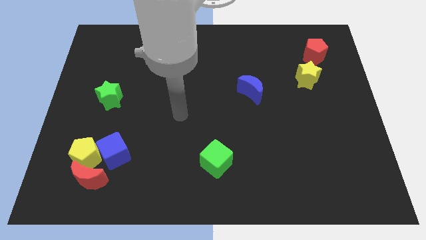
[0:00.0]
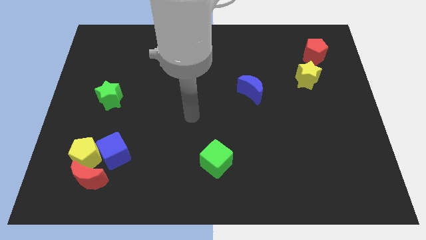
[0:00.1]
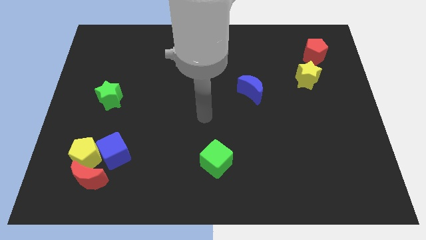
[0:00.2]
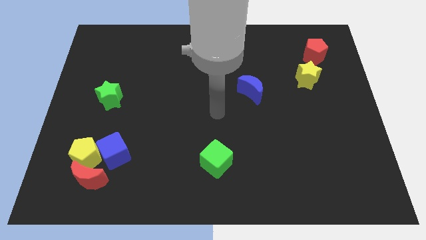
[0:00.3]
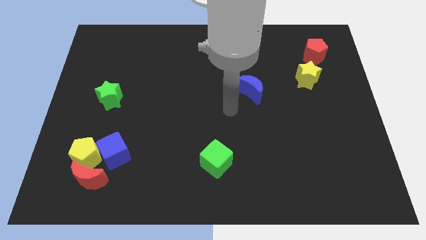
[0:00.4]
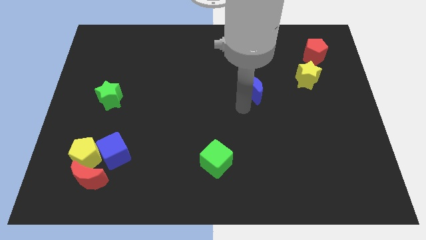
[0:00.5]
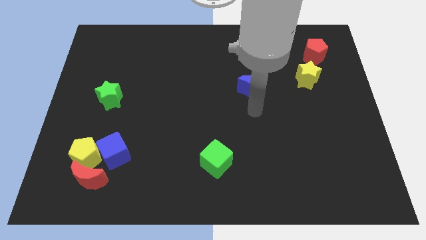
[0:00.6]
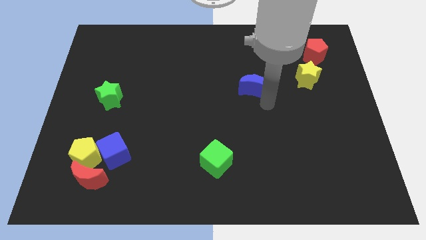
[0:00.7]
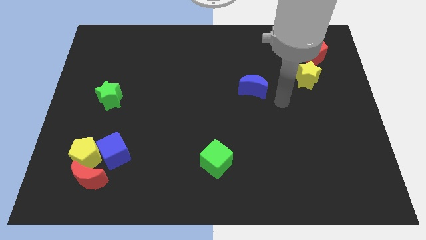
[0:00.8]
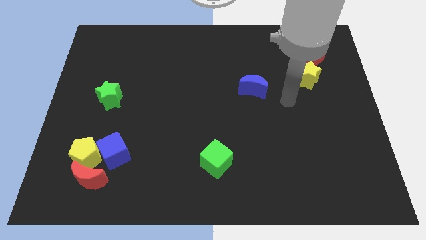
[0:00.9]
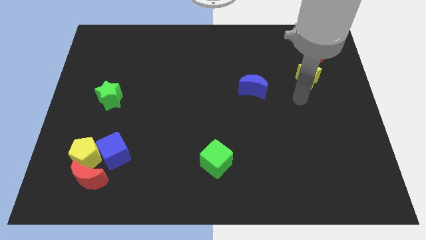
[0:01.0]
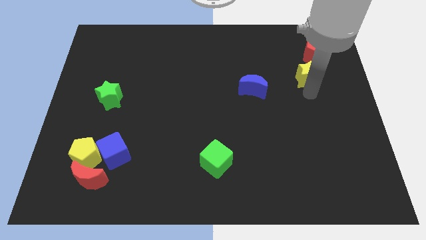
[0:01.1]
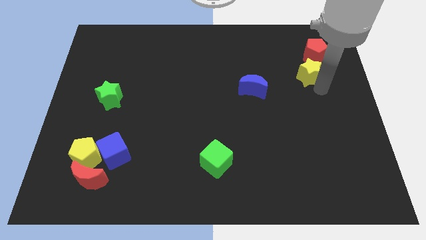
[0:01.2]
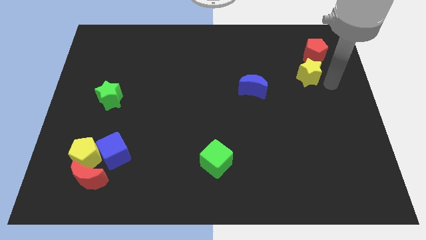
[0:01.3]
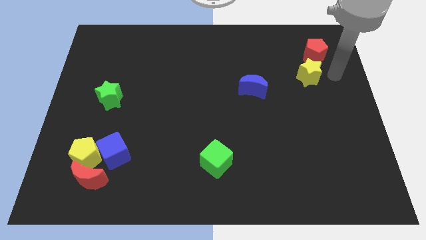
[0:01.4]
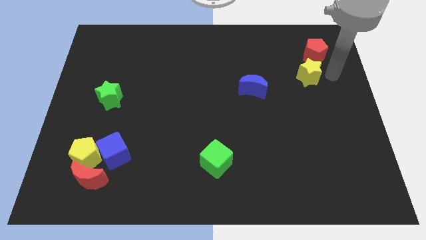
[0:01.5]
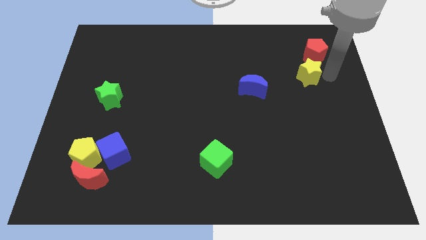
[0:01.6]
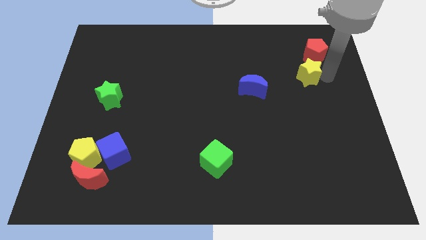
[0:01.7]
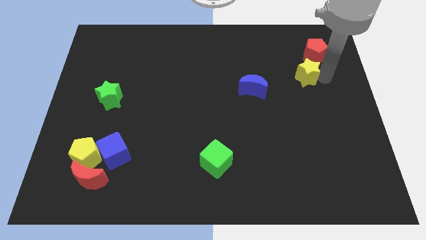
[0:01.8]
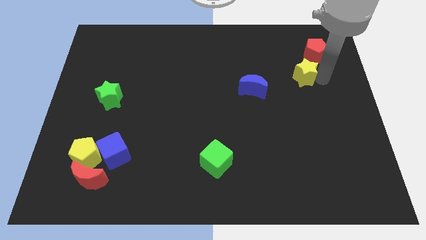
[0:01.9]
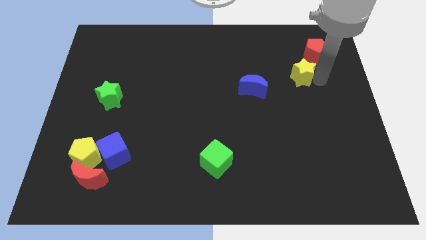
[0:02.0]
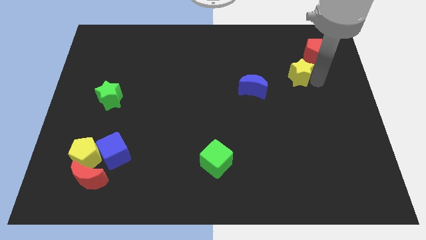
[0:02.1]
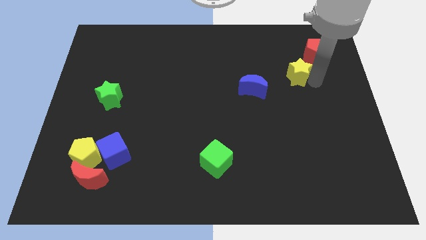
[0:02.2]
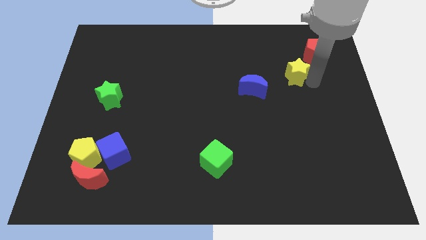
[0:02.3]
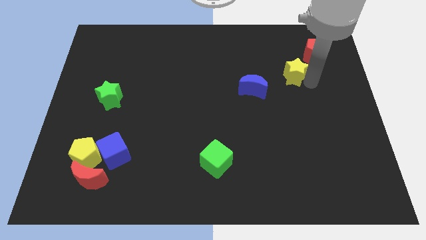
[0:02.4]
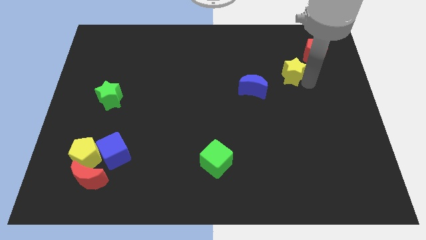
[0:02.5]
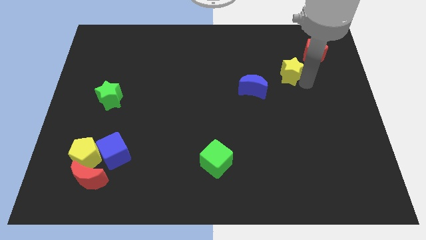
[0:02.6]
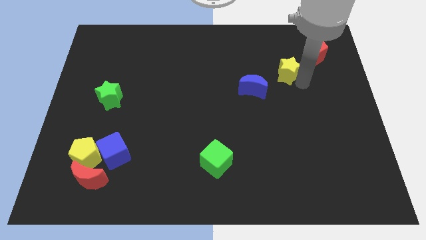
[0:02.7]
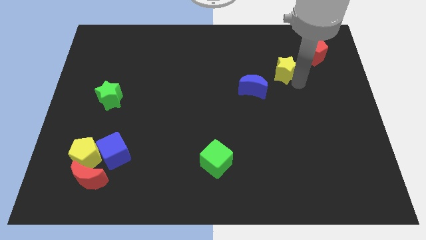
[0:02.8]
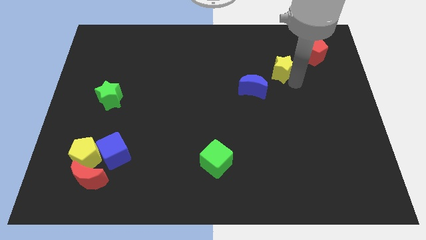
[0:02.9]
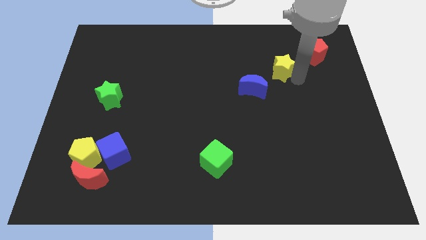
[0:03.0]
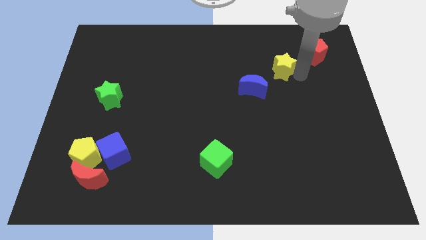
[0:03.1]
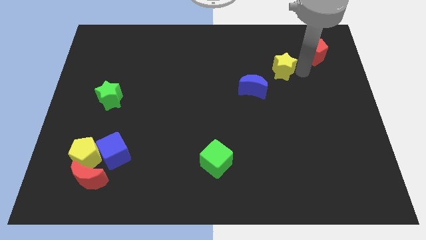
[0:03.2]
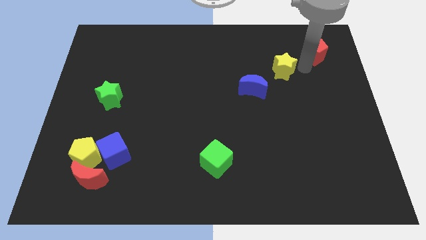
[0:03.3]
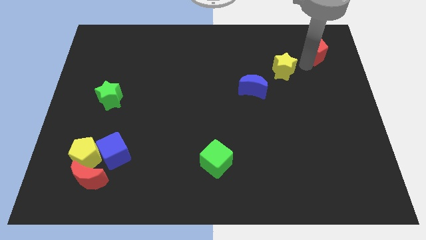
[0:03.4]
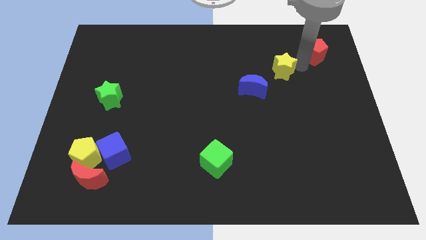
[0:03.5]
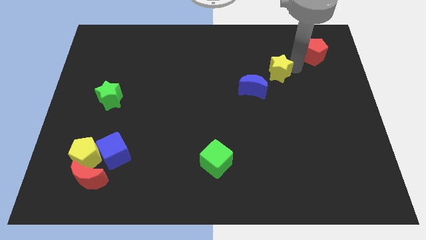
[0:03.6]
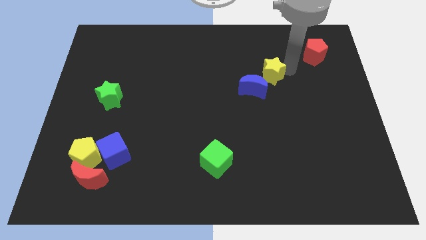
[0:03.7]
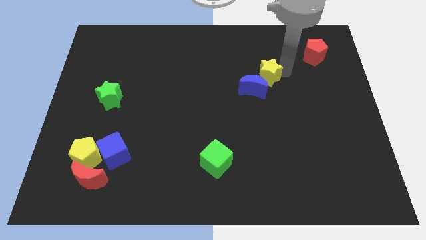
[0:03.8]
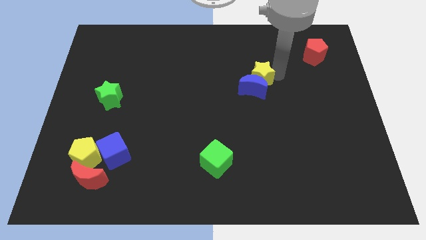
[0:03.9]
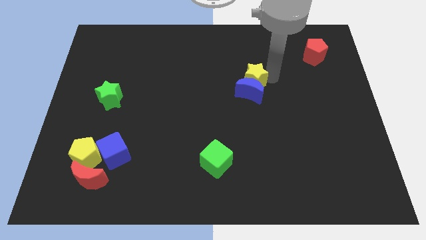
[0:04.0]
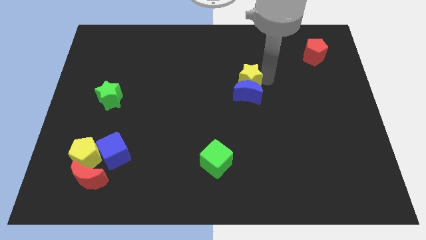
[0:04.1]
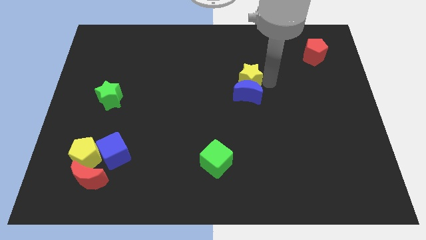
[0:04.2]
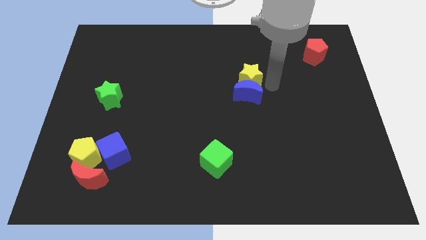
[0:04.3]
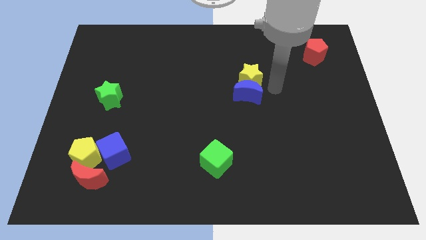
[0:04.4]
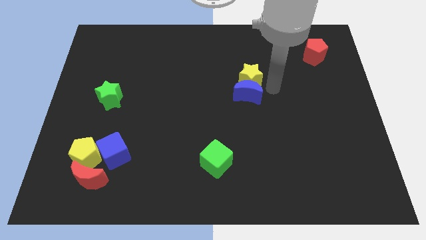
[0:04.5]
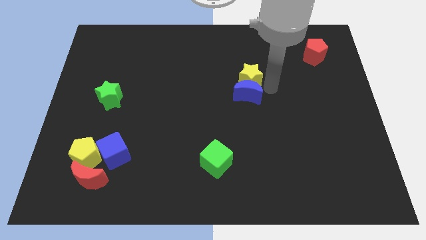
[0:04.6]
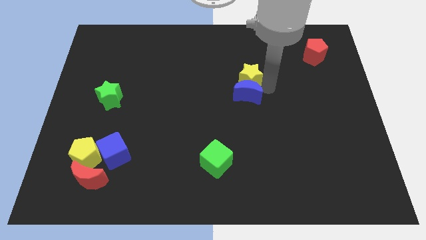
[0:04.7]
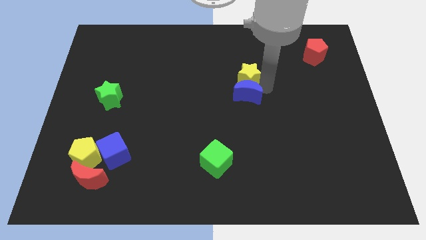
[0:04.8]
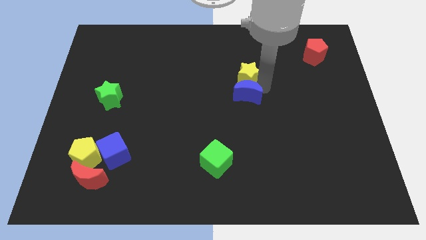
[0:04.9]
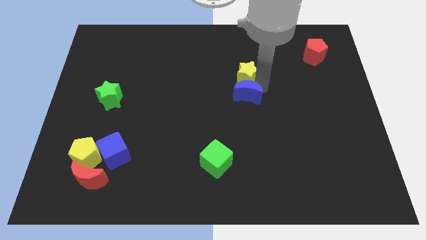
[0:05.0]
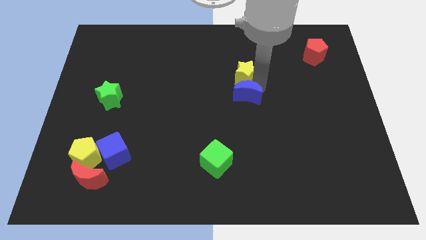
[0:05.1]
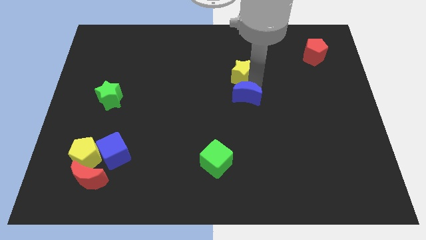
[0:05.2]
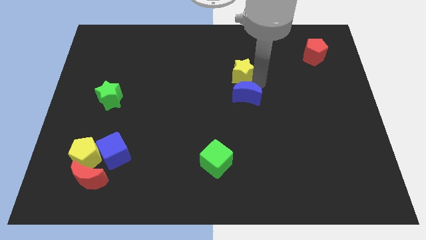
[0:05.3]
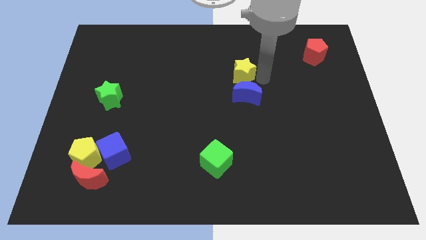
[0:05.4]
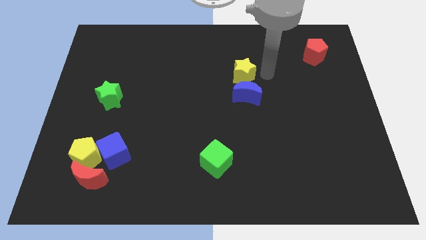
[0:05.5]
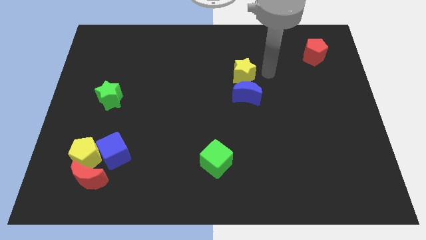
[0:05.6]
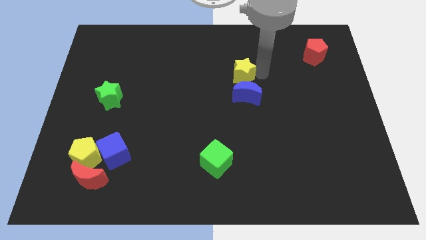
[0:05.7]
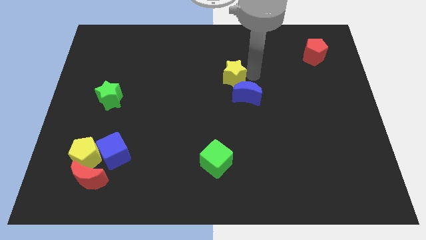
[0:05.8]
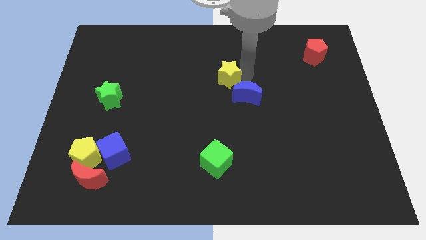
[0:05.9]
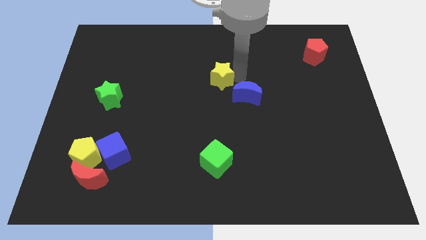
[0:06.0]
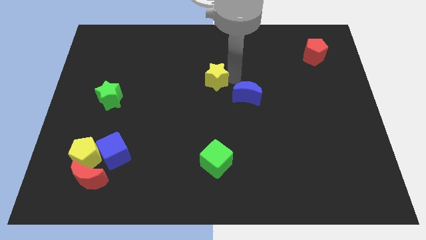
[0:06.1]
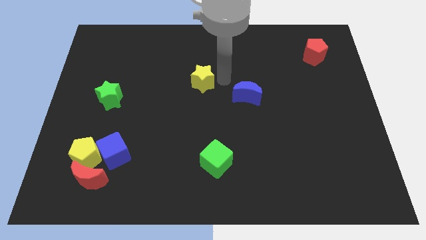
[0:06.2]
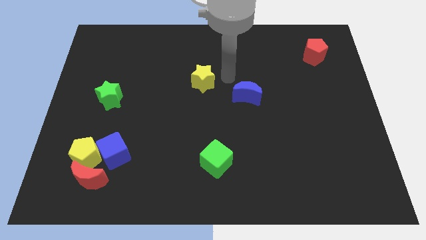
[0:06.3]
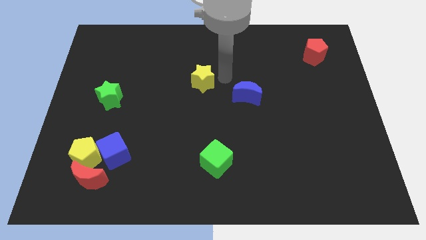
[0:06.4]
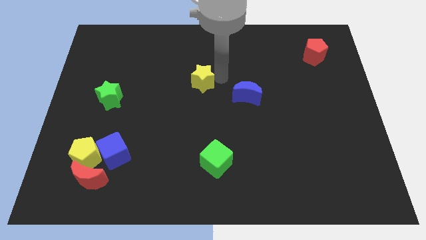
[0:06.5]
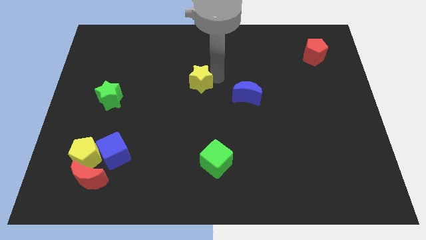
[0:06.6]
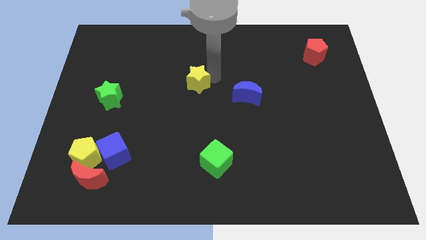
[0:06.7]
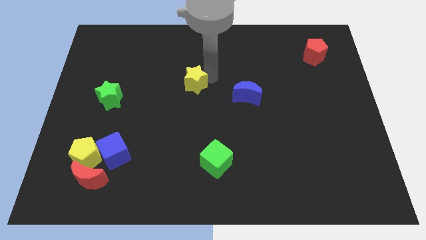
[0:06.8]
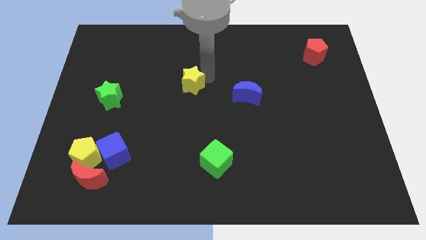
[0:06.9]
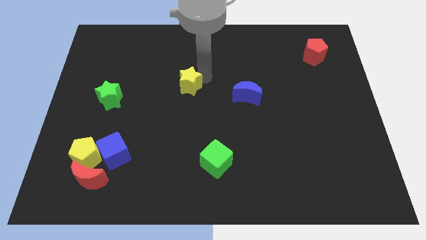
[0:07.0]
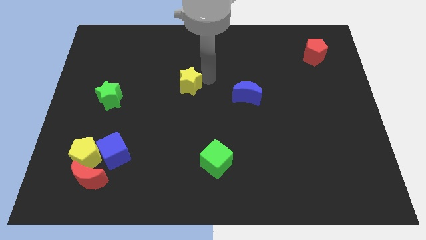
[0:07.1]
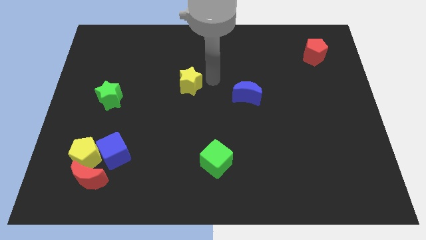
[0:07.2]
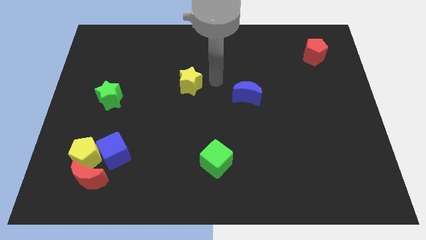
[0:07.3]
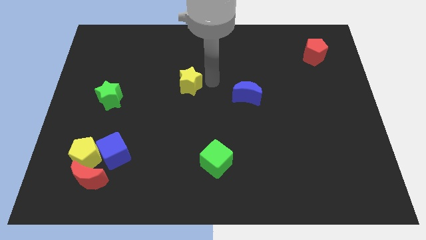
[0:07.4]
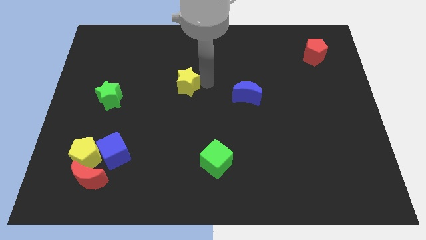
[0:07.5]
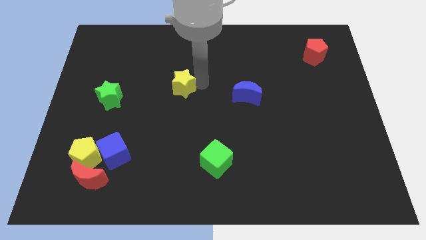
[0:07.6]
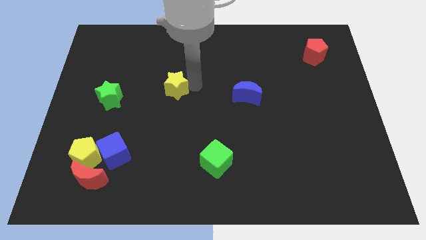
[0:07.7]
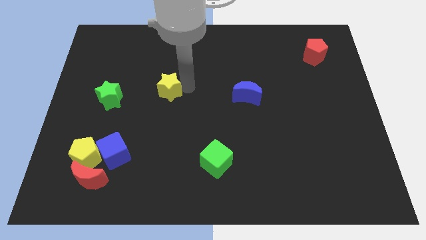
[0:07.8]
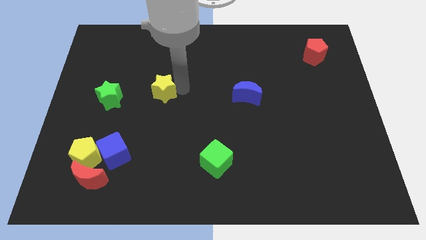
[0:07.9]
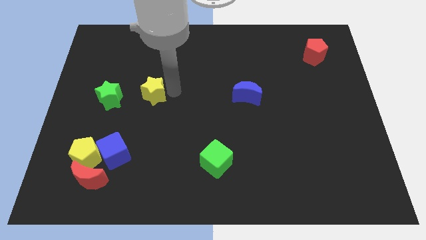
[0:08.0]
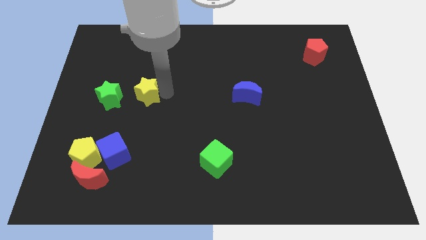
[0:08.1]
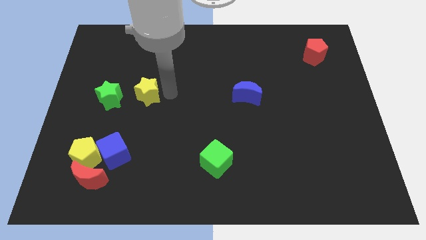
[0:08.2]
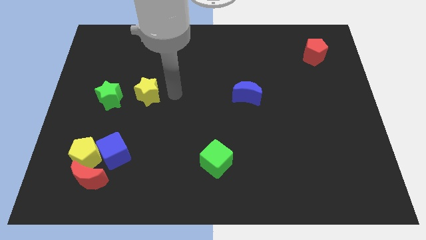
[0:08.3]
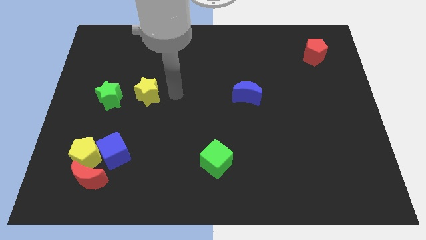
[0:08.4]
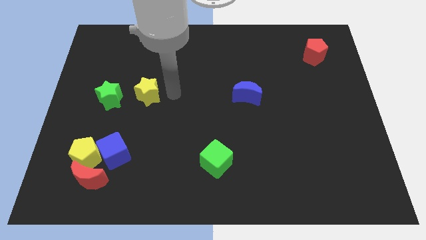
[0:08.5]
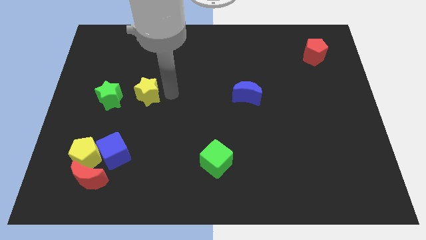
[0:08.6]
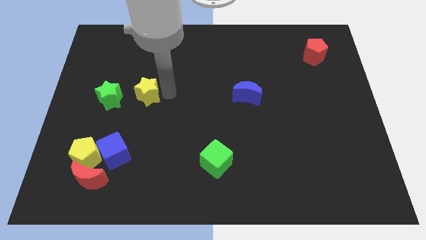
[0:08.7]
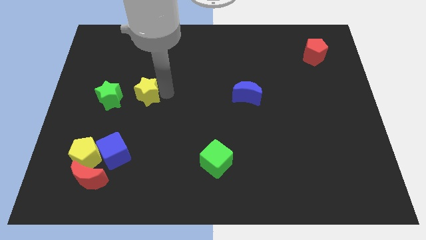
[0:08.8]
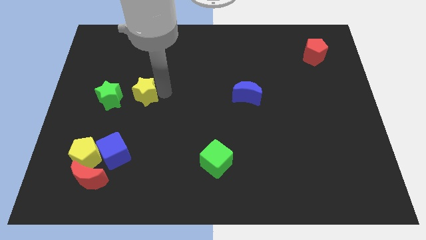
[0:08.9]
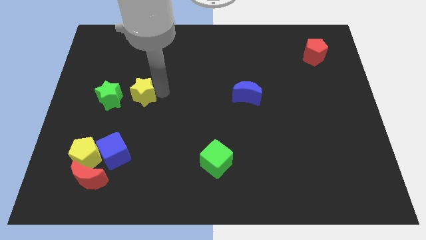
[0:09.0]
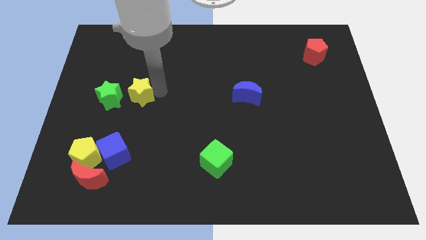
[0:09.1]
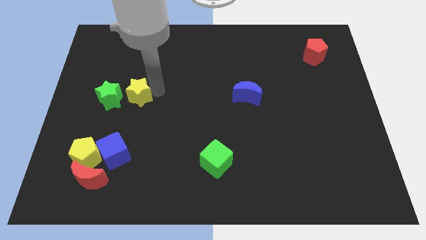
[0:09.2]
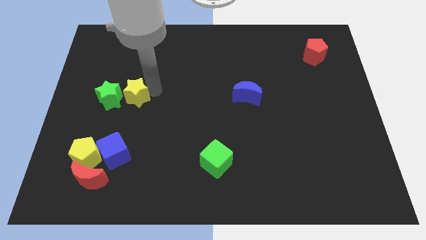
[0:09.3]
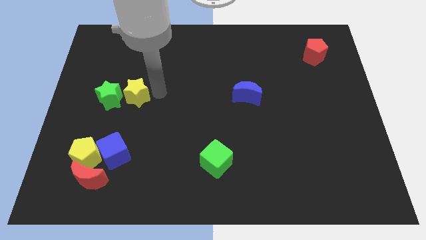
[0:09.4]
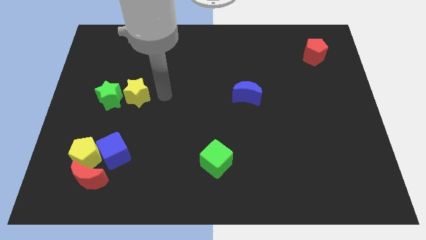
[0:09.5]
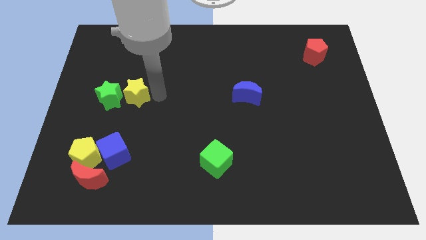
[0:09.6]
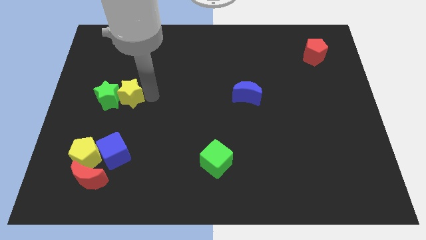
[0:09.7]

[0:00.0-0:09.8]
slide the yellow star close to the green star
